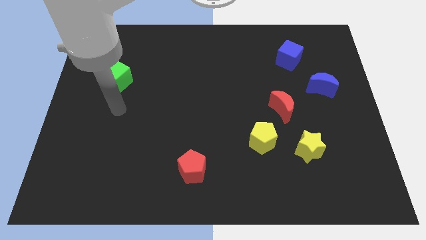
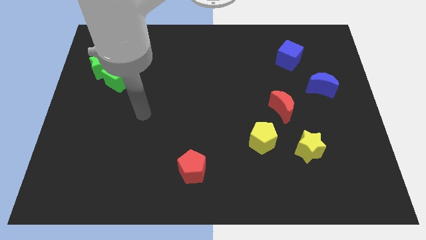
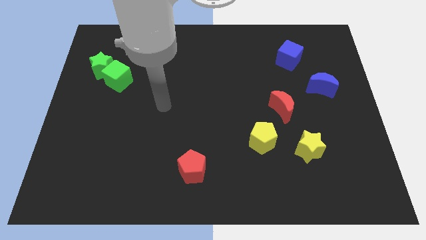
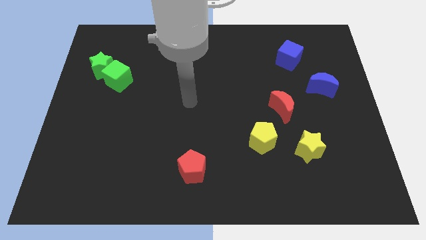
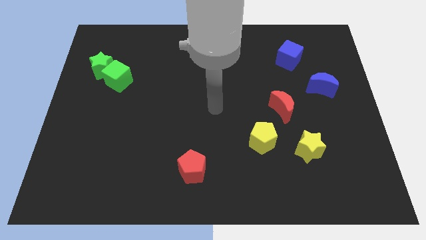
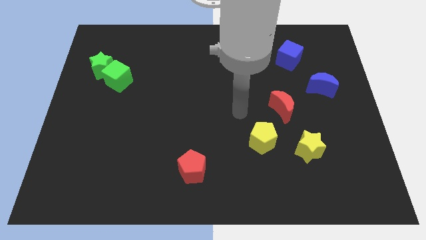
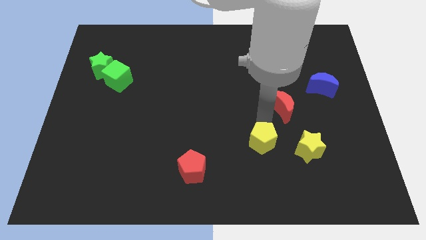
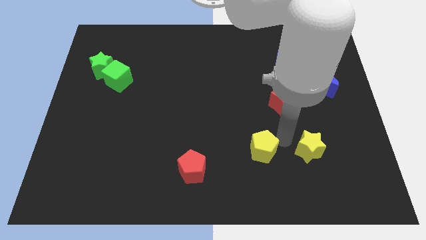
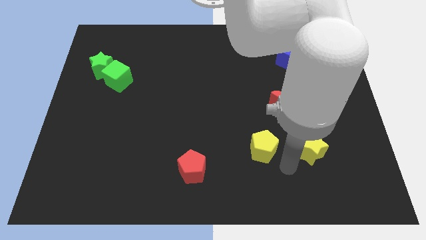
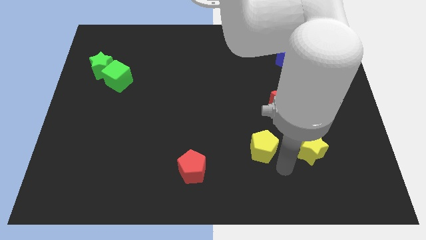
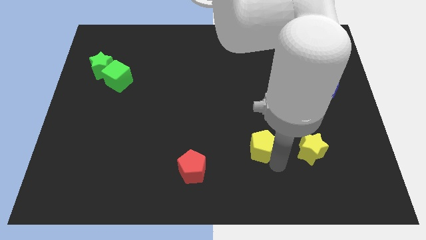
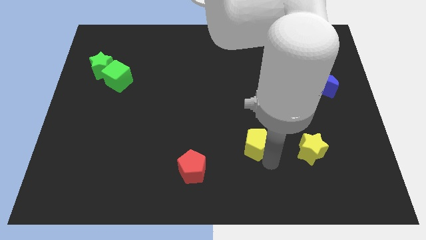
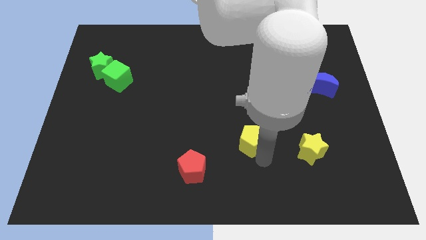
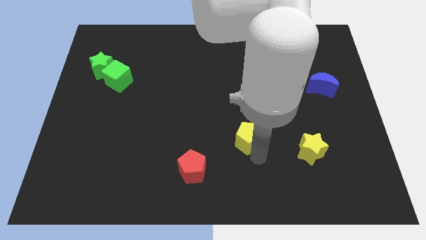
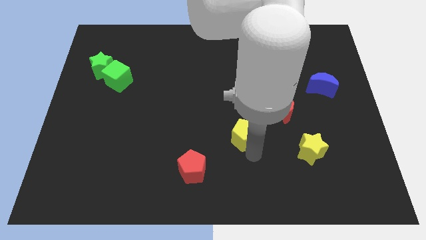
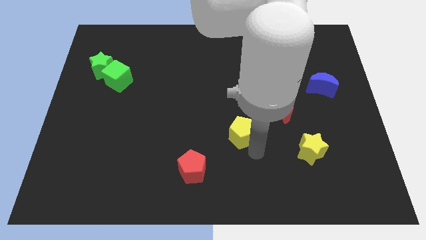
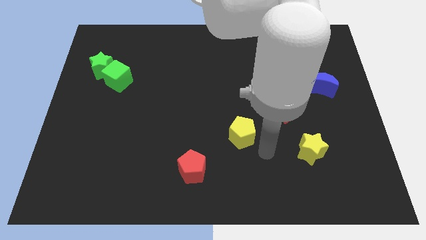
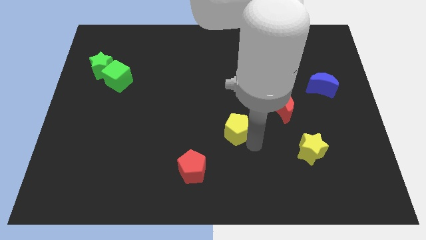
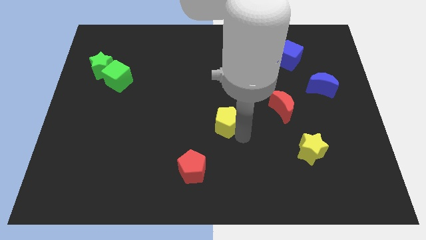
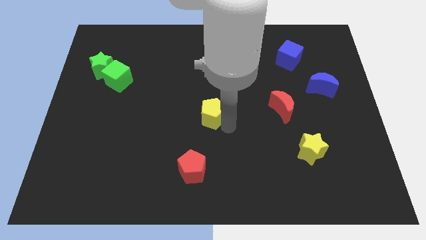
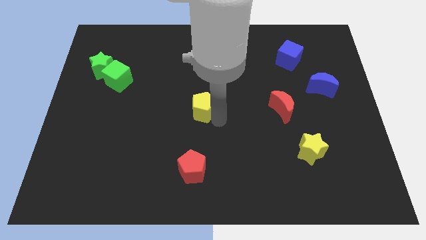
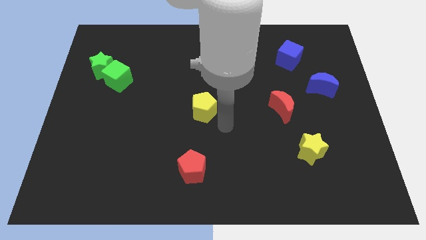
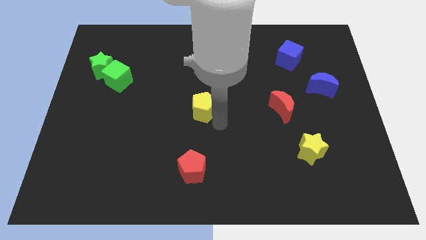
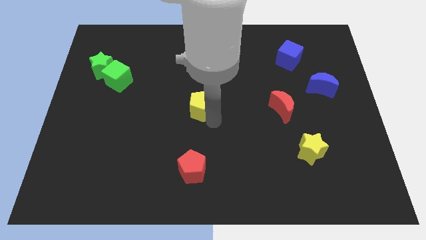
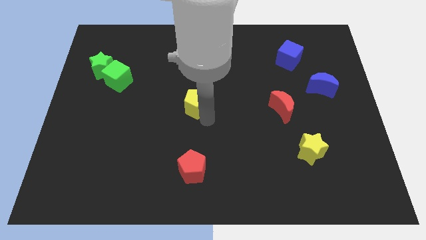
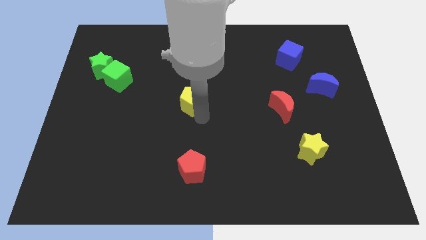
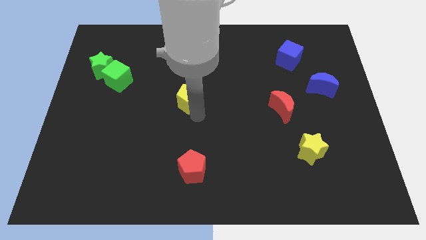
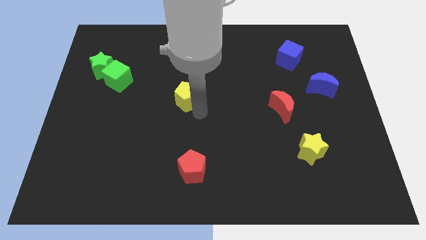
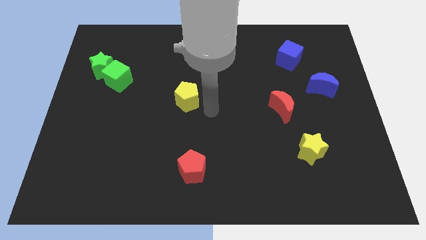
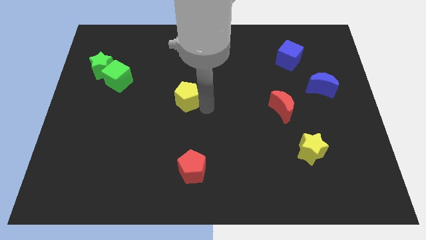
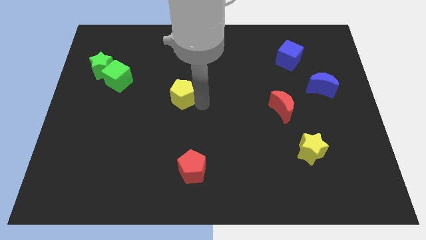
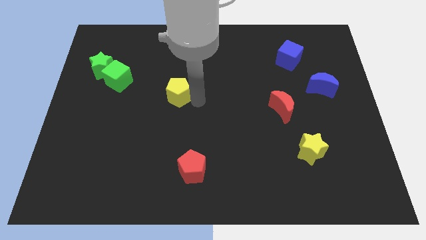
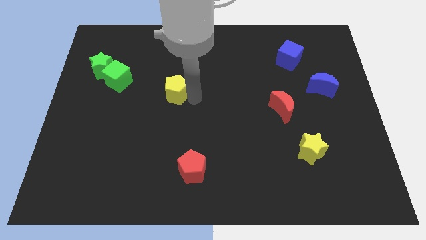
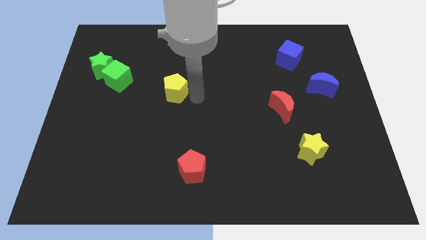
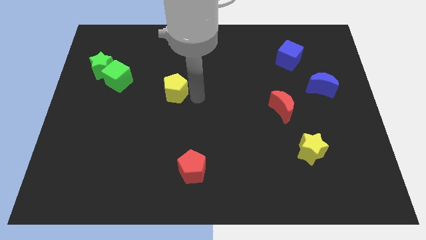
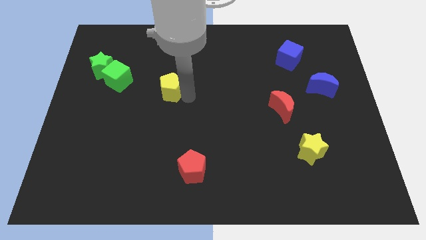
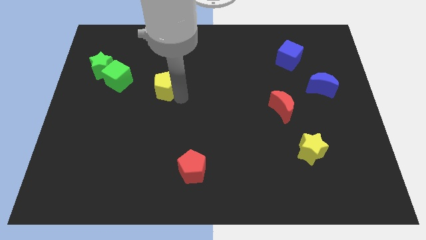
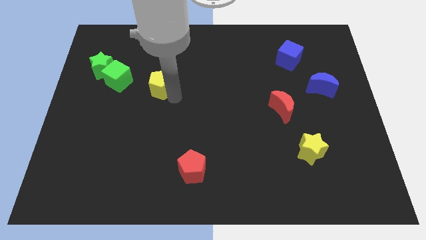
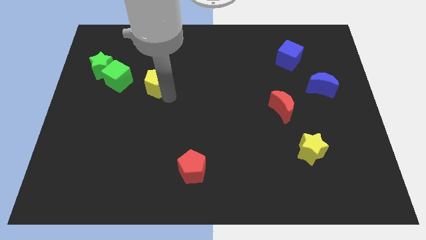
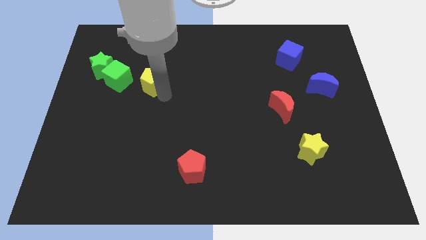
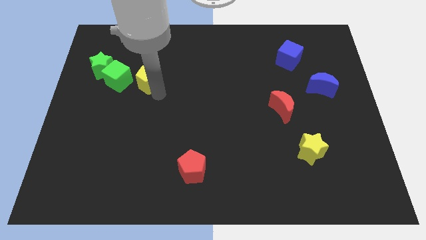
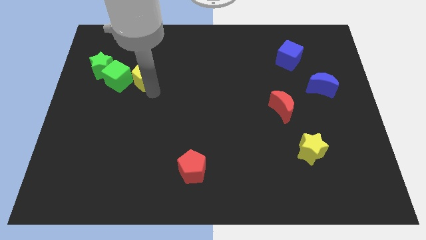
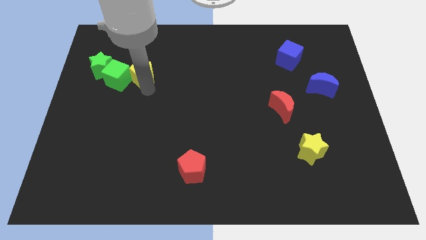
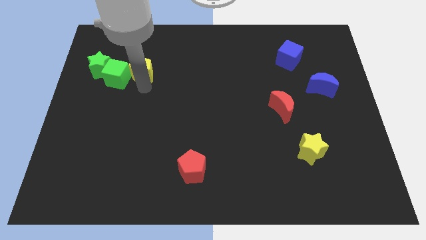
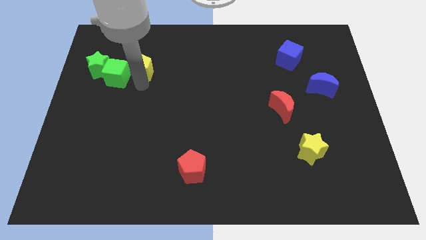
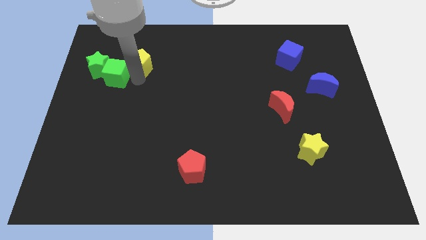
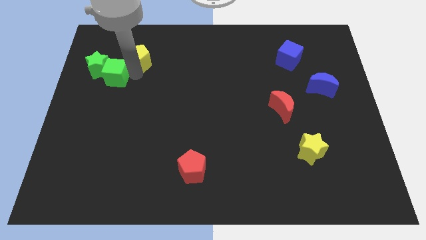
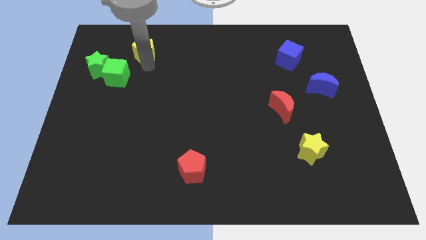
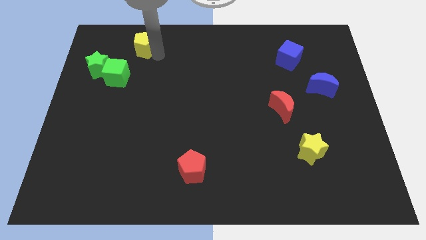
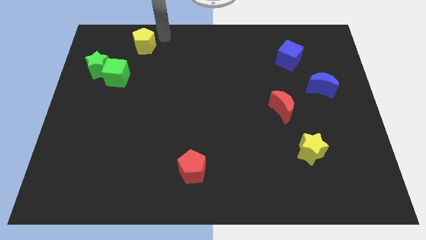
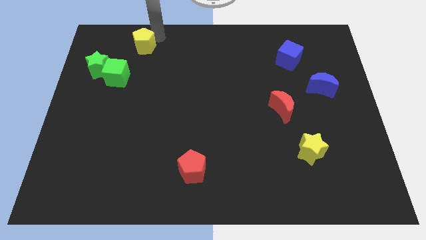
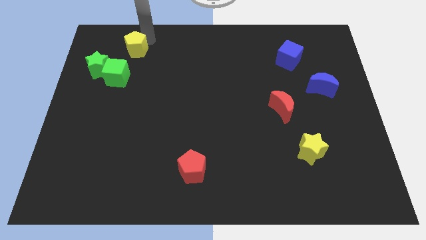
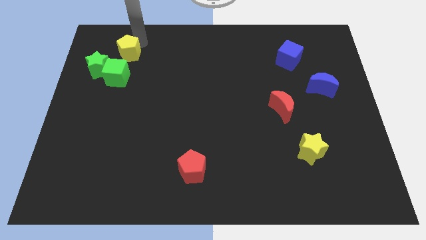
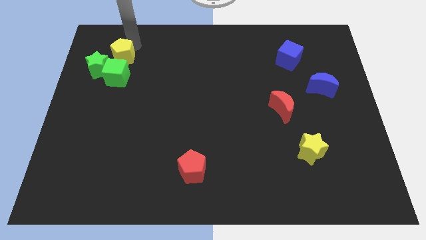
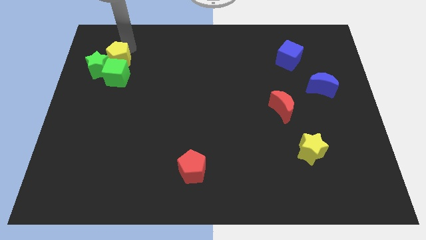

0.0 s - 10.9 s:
move the yellow pentagon to the green star

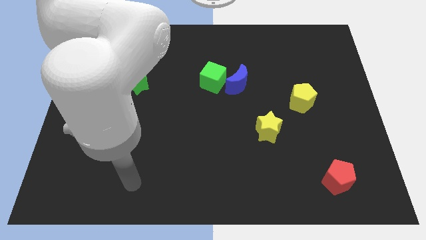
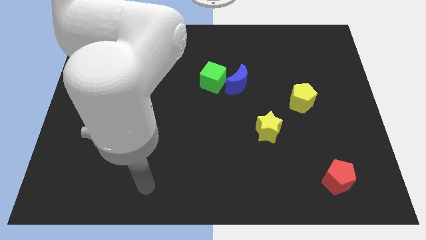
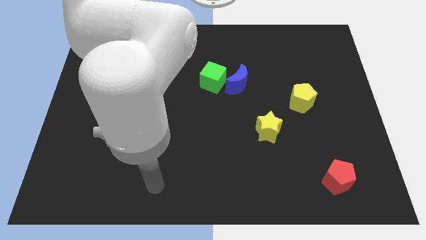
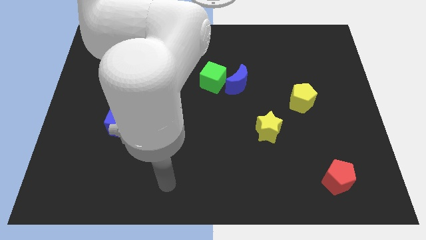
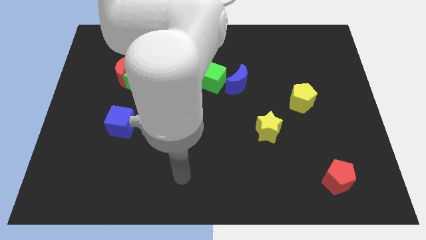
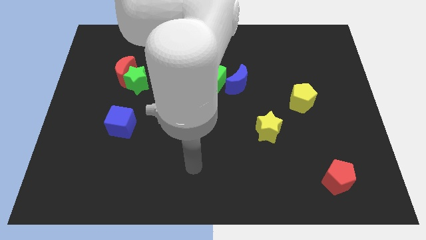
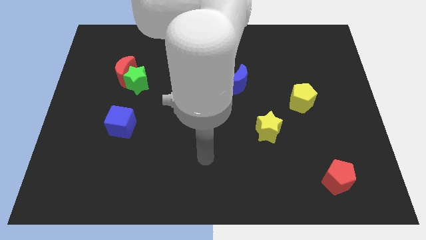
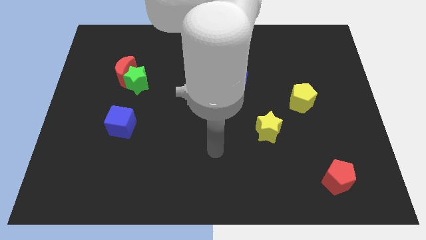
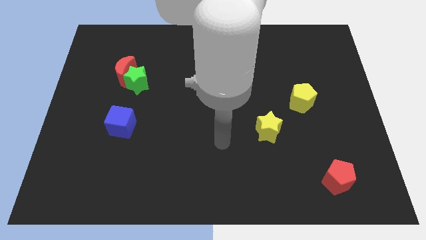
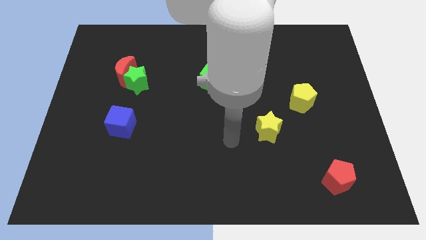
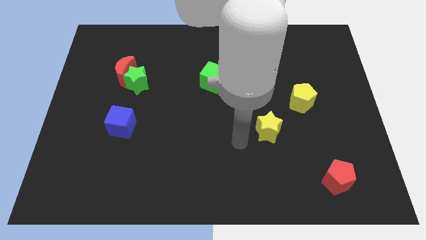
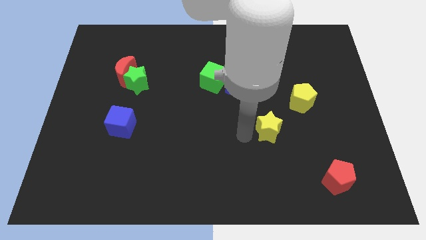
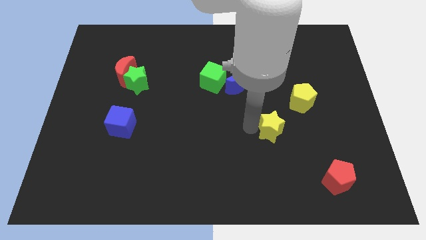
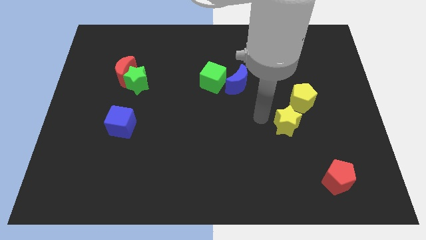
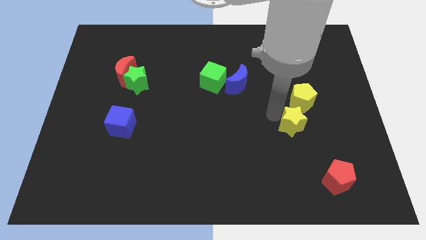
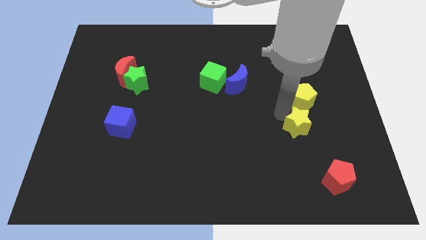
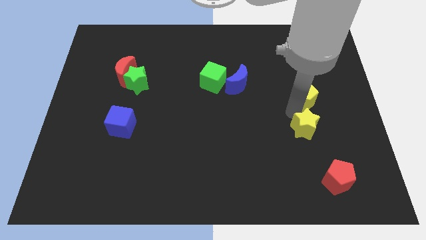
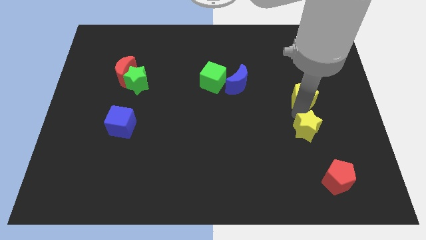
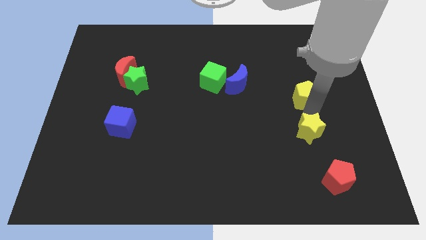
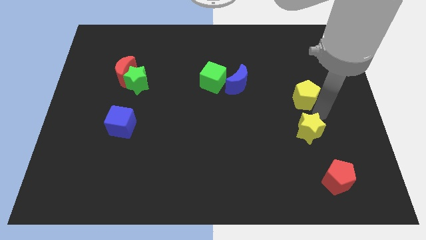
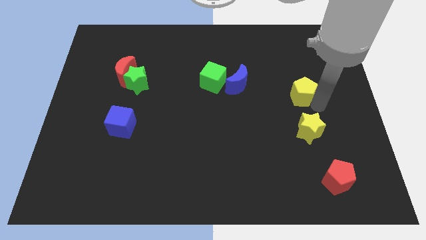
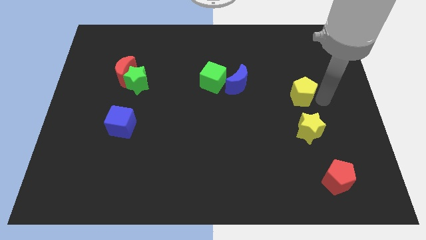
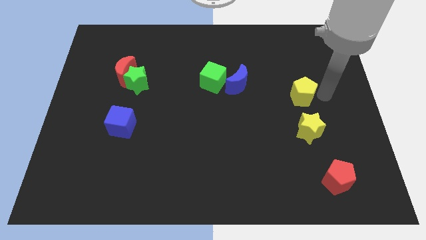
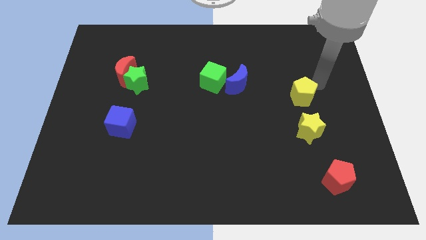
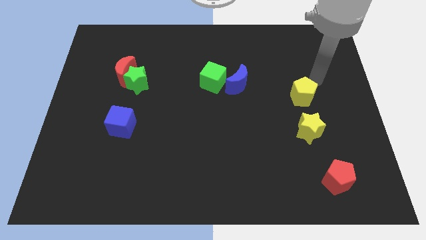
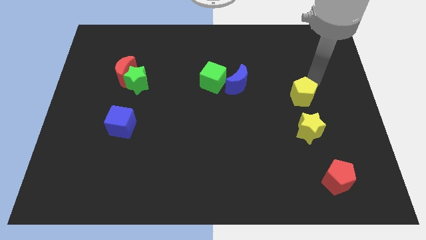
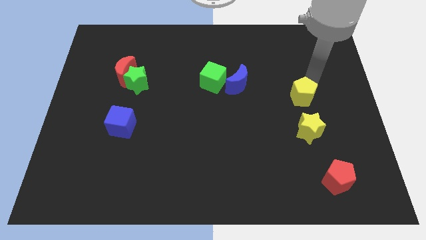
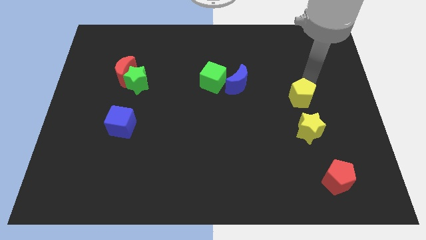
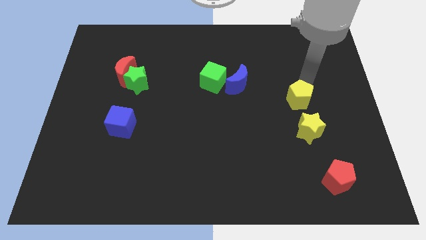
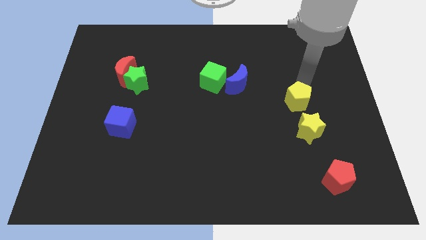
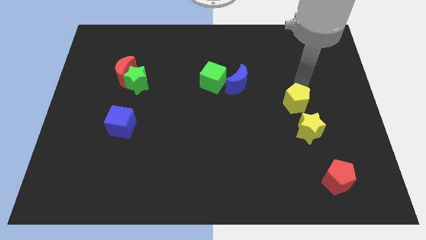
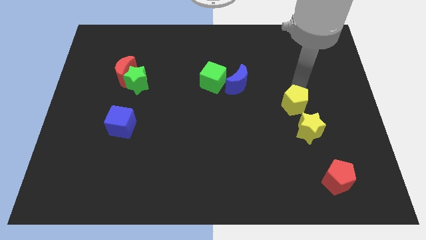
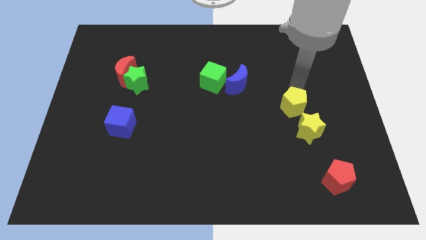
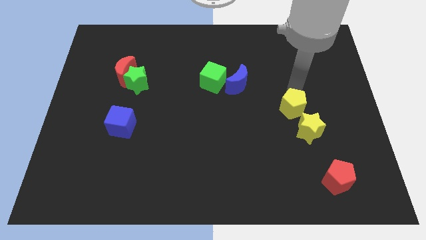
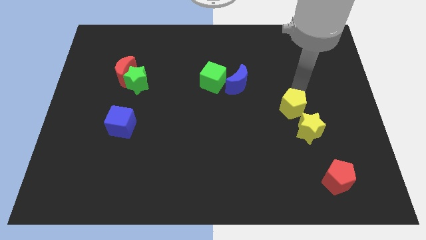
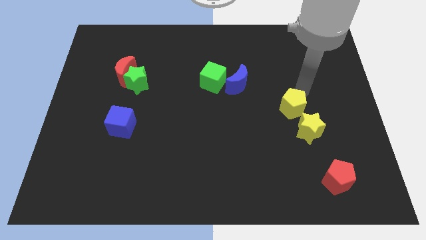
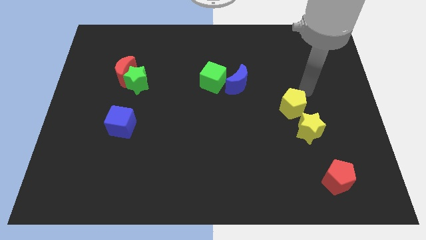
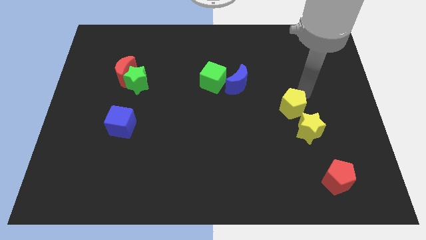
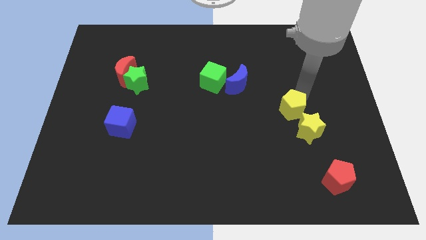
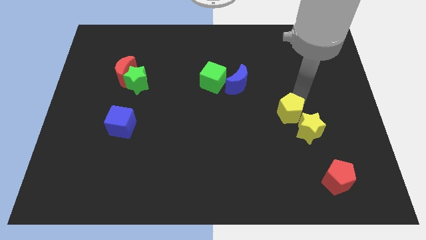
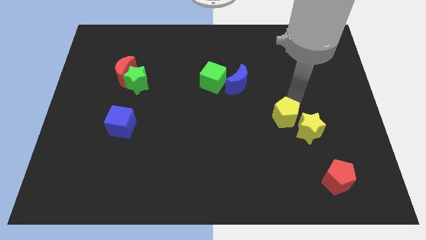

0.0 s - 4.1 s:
put the yellow pentagon towards the yellow star
